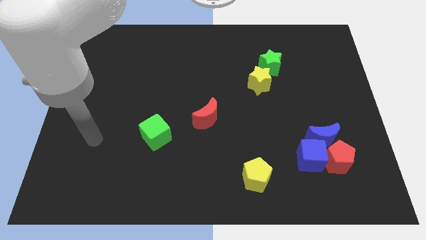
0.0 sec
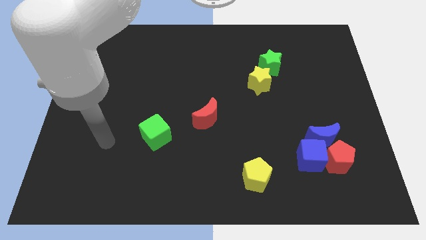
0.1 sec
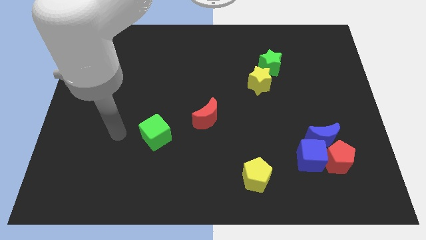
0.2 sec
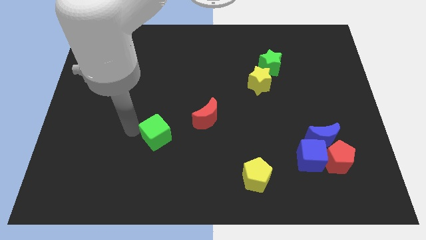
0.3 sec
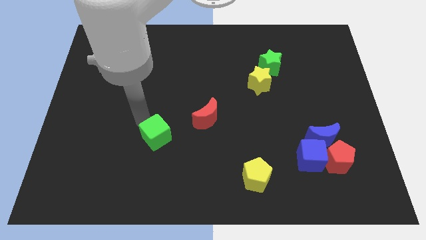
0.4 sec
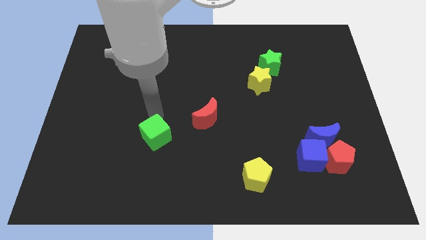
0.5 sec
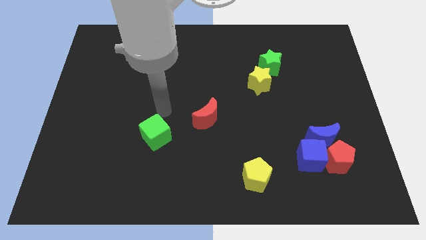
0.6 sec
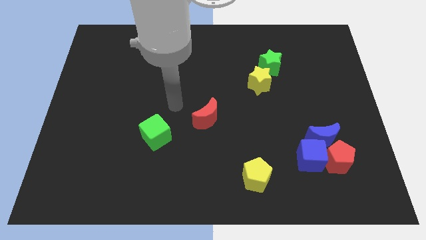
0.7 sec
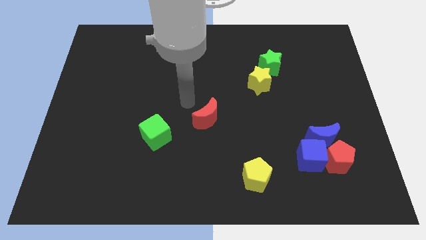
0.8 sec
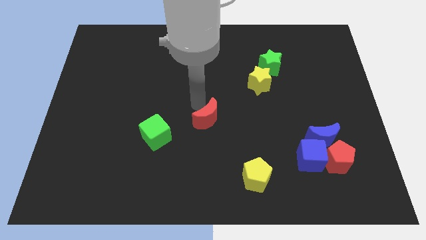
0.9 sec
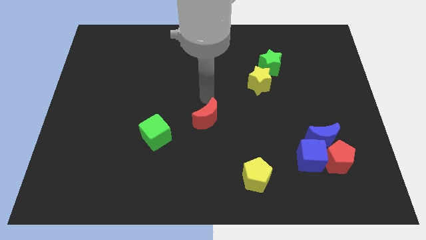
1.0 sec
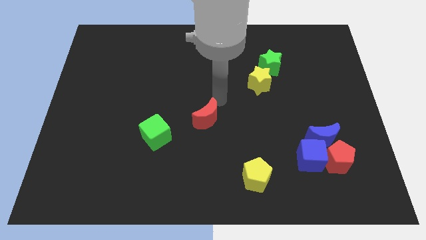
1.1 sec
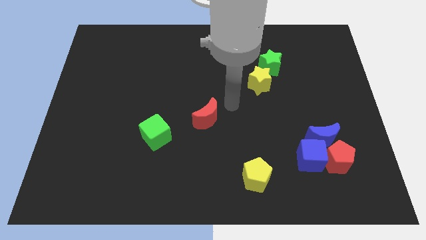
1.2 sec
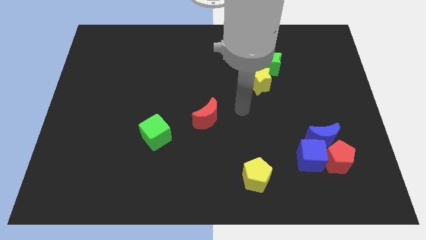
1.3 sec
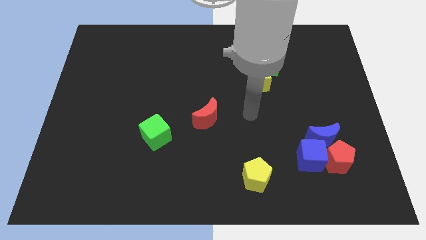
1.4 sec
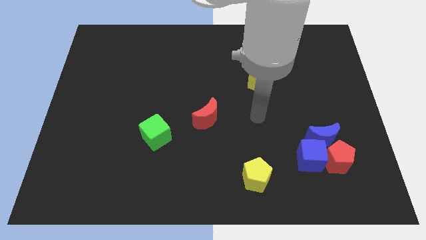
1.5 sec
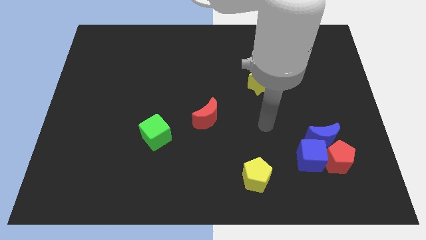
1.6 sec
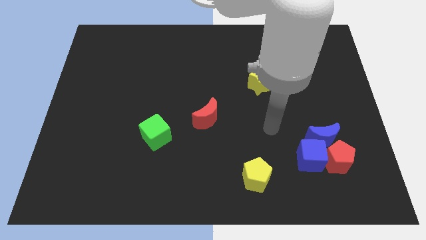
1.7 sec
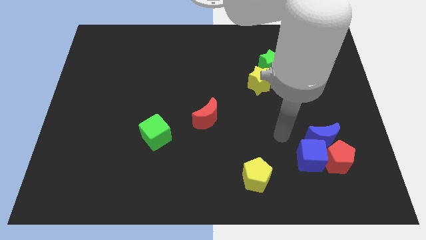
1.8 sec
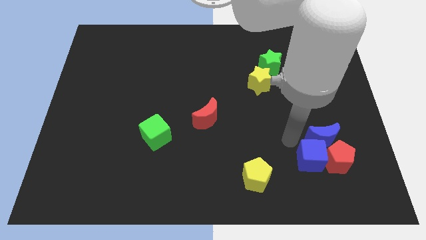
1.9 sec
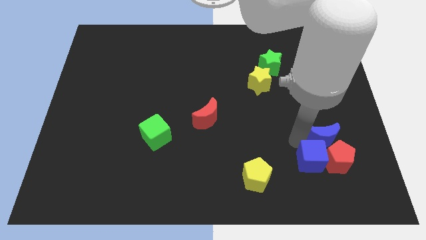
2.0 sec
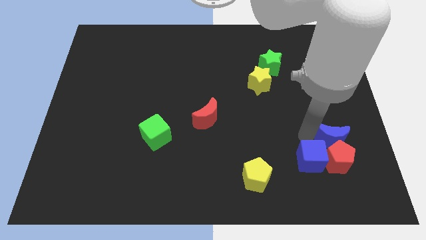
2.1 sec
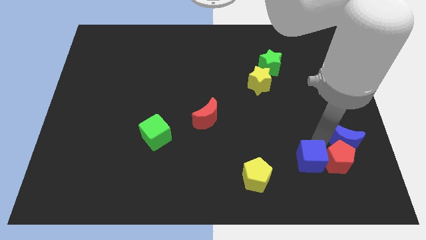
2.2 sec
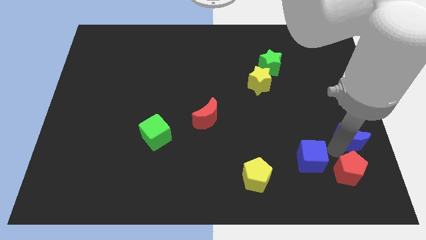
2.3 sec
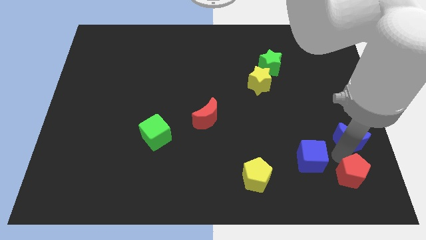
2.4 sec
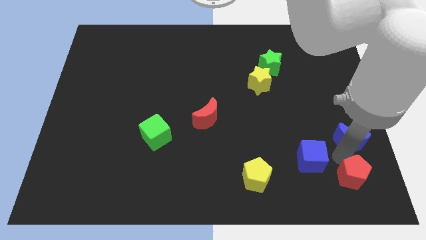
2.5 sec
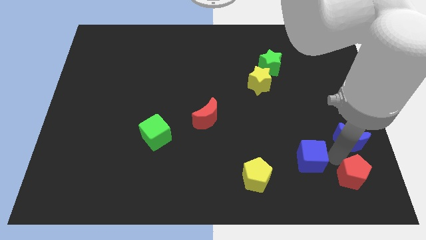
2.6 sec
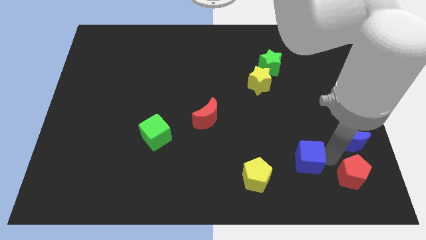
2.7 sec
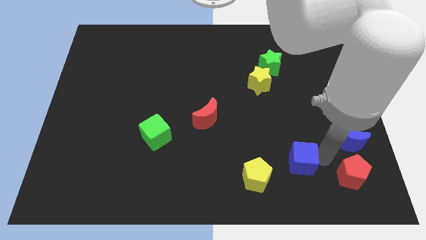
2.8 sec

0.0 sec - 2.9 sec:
separate the blue cube from the red pentagon and blue moon

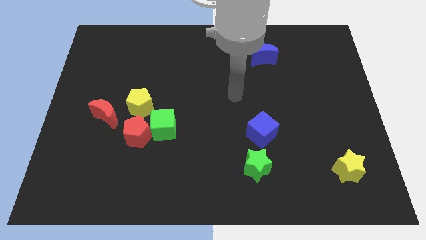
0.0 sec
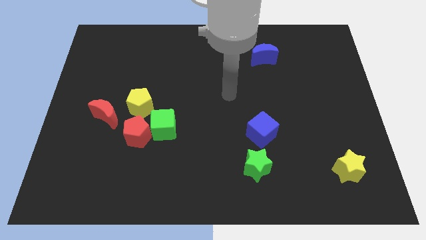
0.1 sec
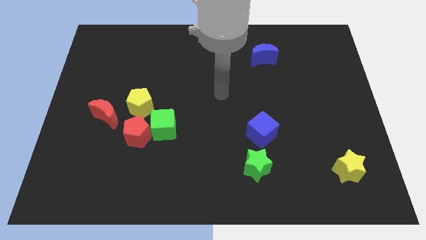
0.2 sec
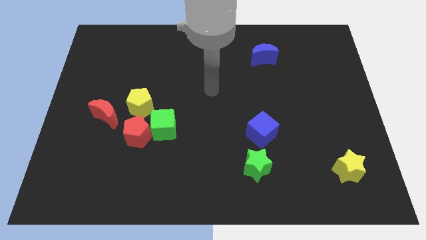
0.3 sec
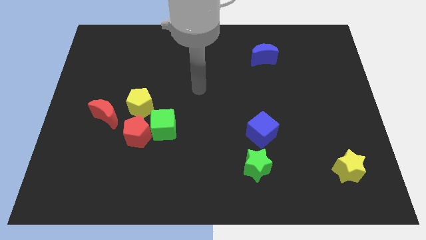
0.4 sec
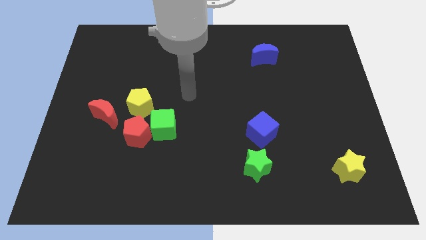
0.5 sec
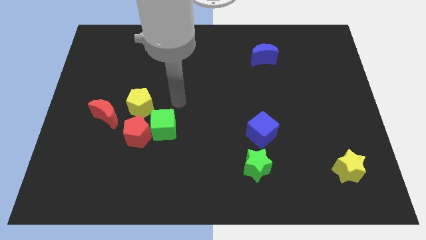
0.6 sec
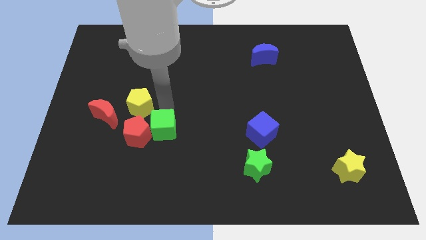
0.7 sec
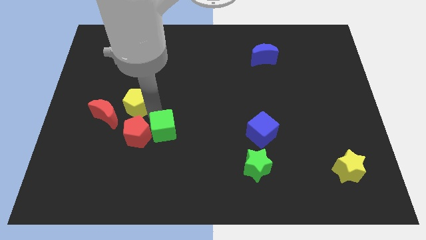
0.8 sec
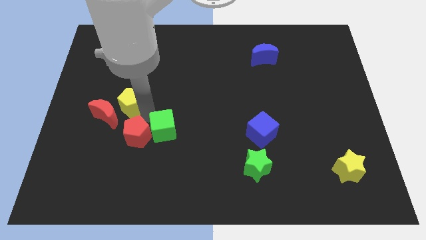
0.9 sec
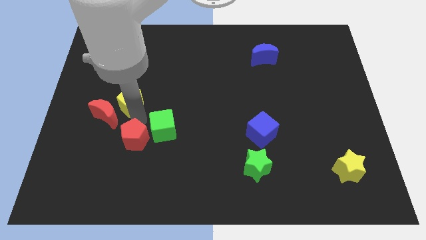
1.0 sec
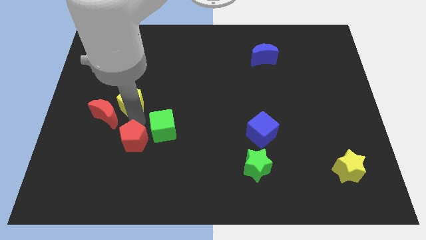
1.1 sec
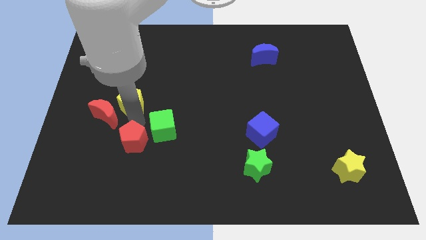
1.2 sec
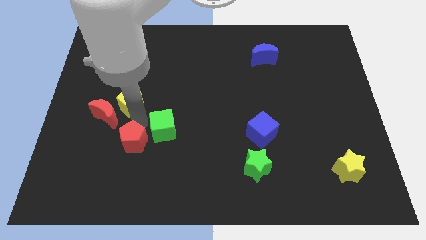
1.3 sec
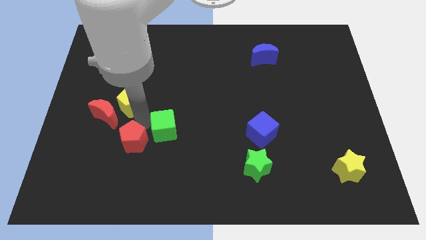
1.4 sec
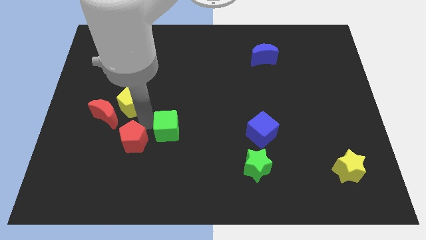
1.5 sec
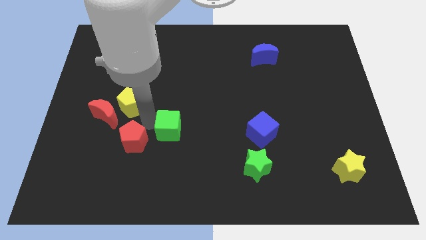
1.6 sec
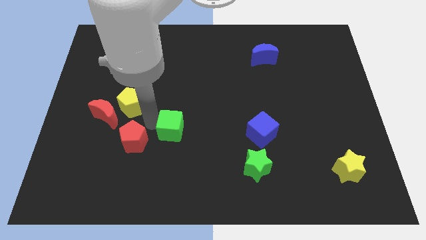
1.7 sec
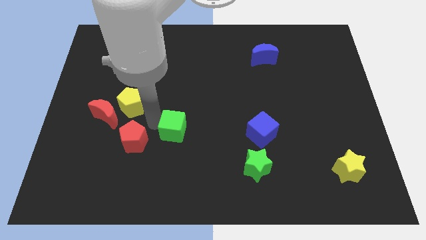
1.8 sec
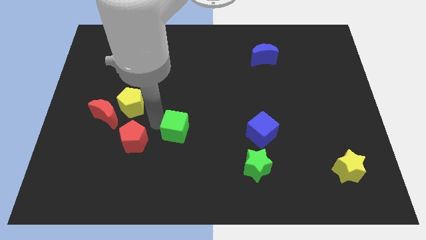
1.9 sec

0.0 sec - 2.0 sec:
move the green cube away from the red pentagon and yellow pentagon

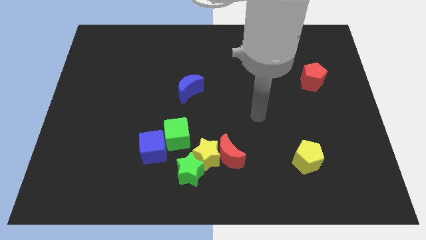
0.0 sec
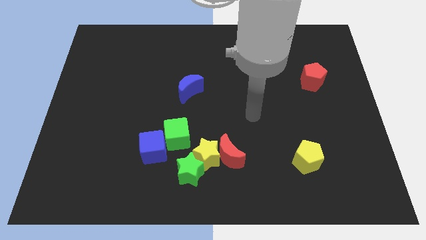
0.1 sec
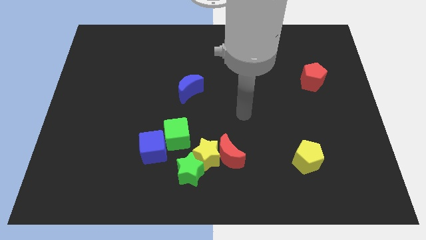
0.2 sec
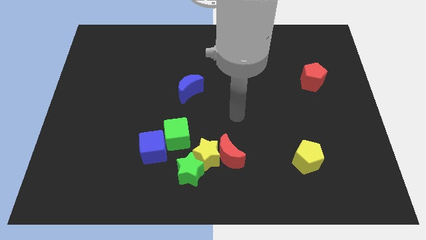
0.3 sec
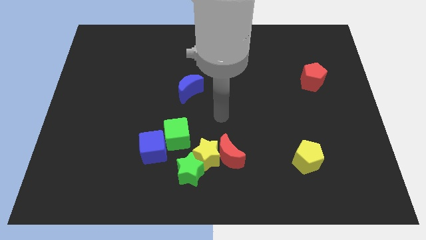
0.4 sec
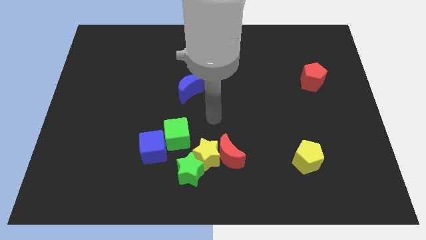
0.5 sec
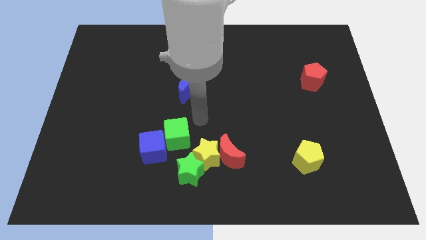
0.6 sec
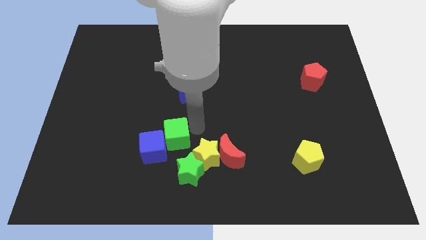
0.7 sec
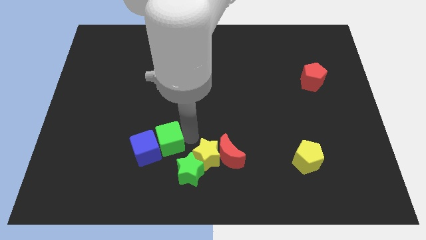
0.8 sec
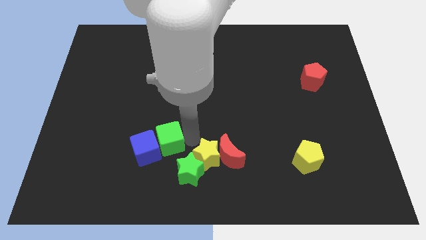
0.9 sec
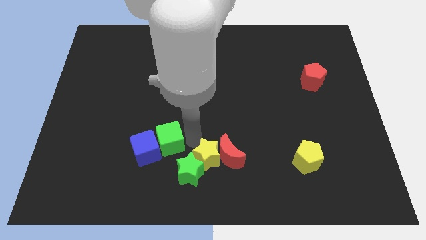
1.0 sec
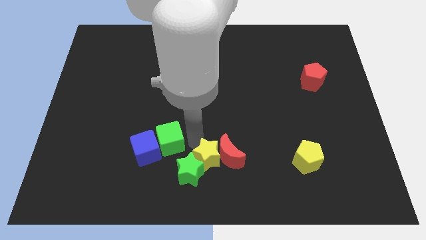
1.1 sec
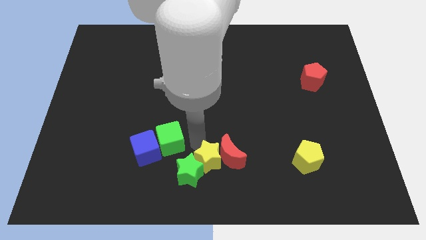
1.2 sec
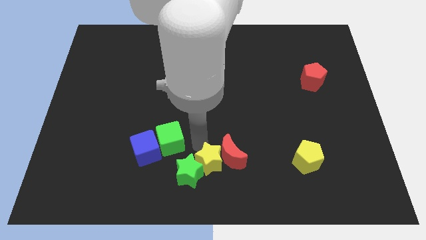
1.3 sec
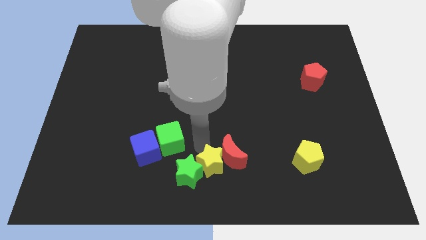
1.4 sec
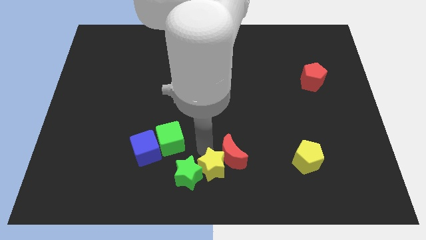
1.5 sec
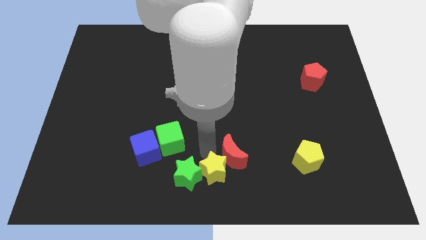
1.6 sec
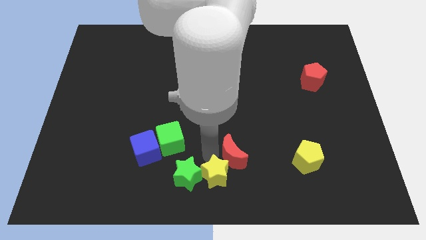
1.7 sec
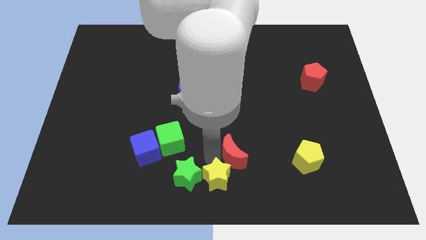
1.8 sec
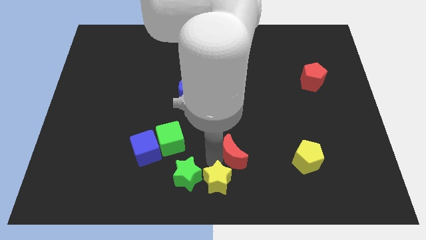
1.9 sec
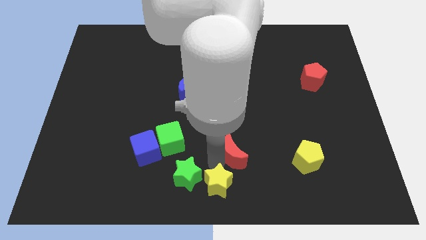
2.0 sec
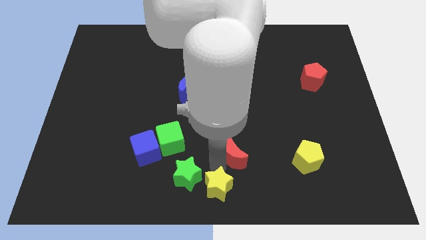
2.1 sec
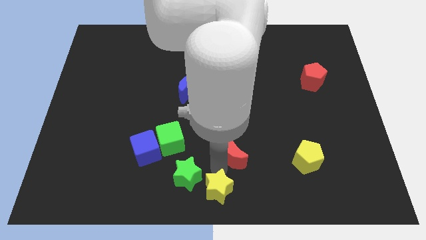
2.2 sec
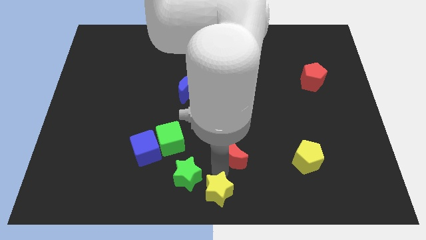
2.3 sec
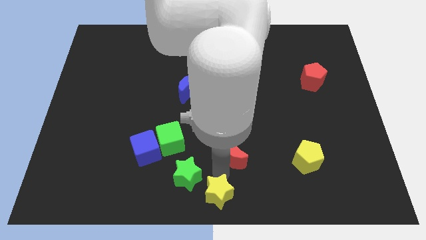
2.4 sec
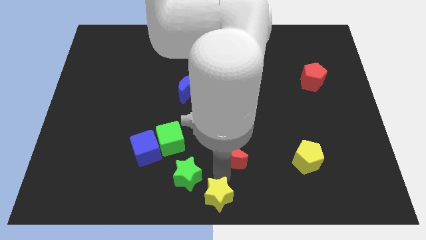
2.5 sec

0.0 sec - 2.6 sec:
move the yellow star away from the group of blocks

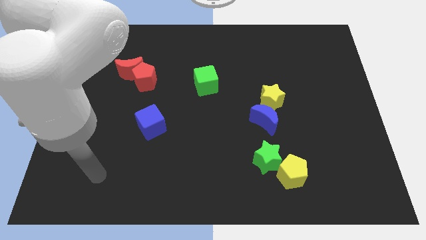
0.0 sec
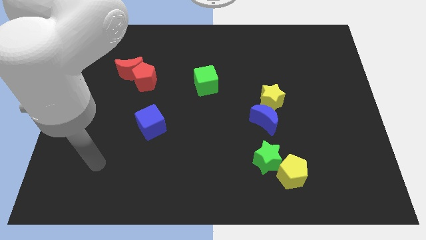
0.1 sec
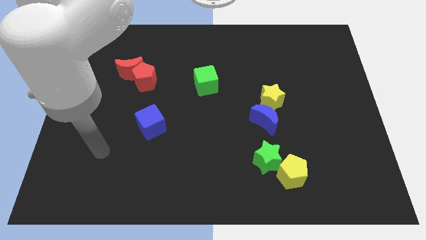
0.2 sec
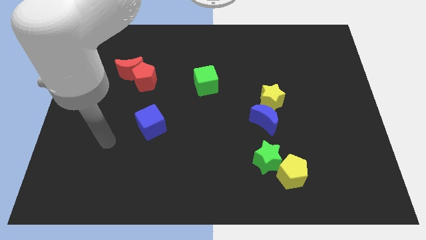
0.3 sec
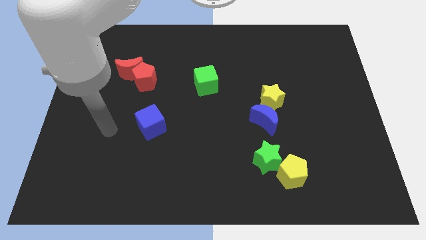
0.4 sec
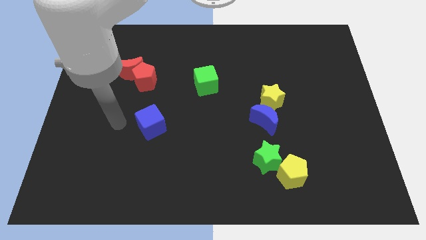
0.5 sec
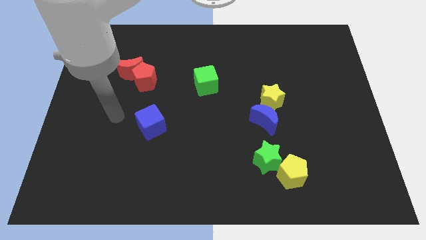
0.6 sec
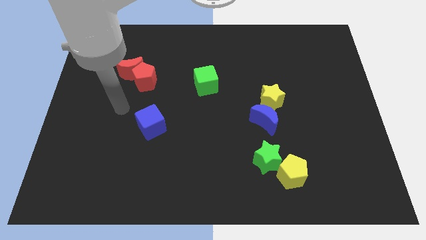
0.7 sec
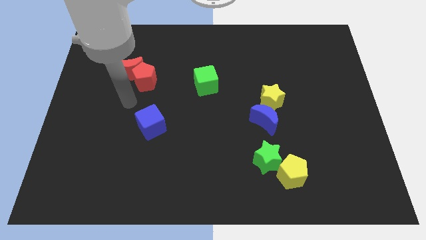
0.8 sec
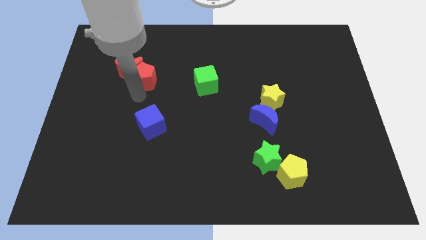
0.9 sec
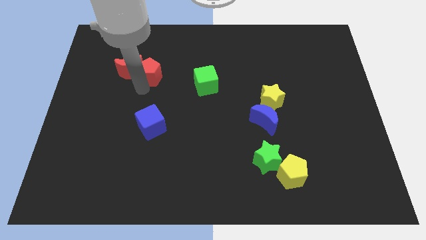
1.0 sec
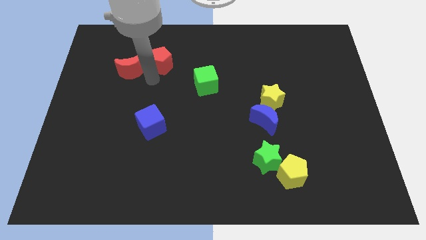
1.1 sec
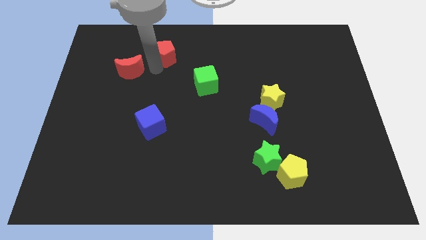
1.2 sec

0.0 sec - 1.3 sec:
move the red moon away from the red pentagon

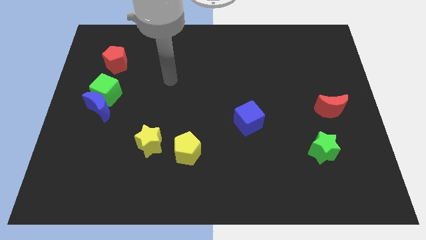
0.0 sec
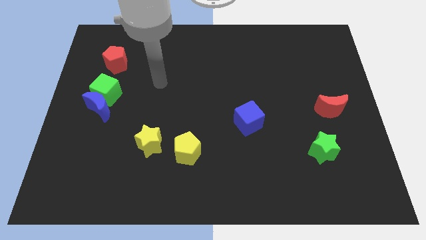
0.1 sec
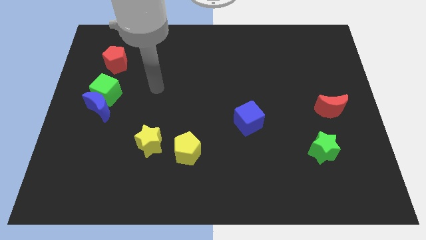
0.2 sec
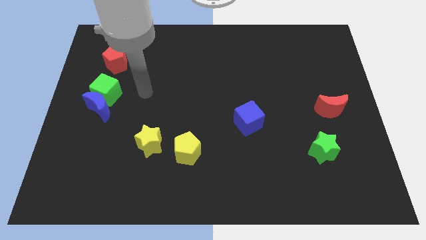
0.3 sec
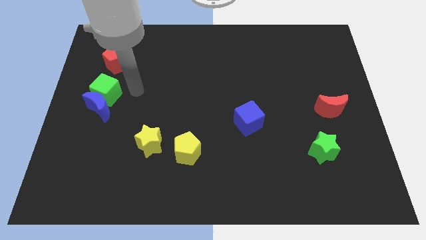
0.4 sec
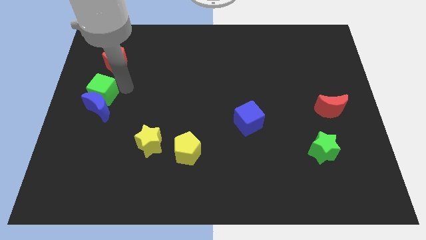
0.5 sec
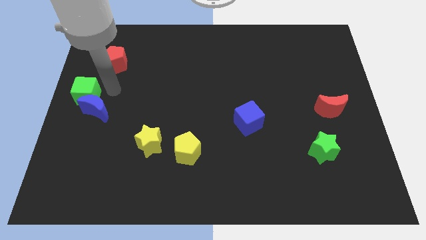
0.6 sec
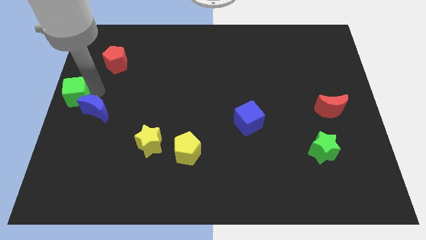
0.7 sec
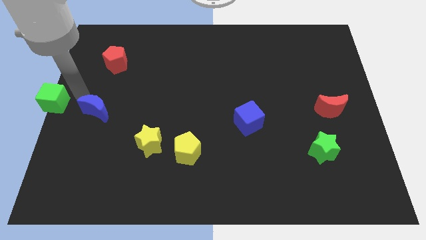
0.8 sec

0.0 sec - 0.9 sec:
pull the blue moon apart from the green cube
